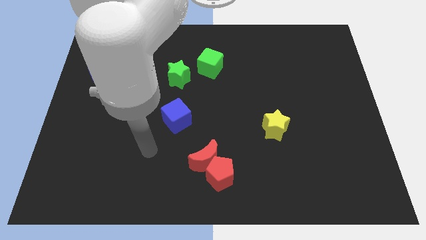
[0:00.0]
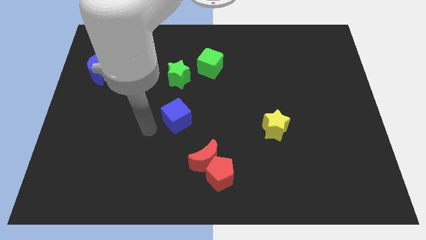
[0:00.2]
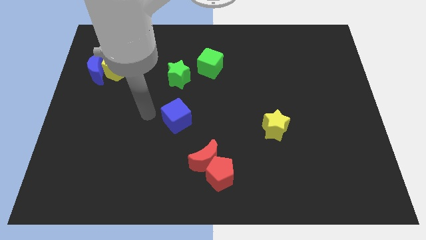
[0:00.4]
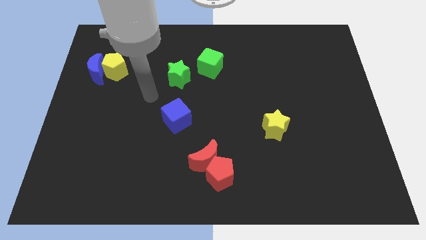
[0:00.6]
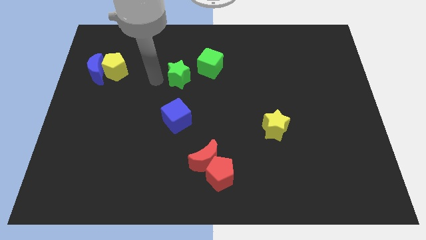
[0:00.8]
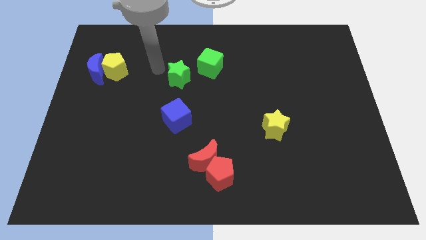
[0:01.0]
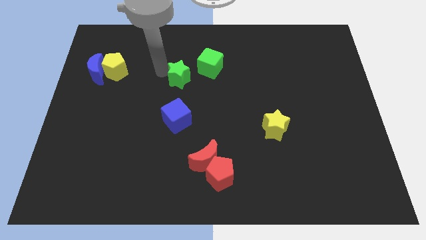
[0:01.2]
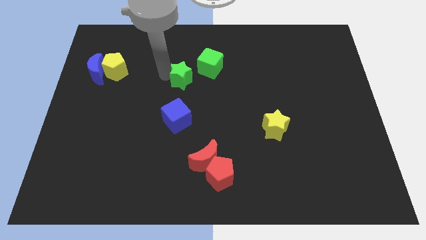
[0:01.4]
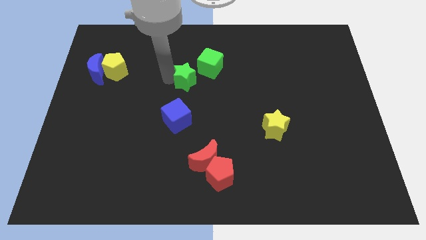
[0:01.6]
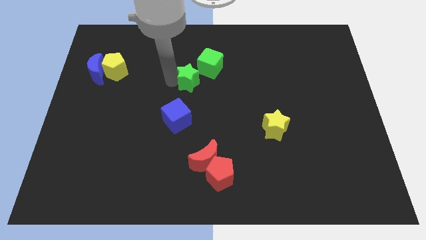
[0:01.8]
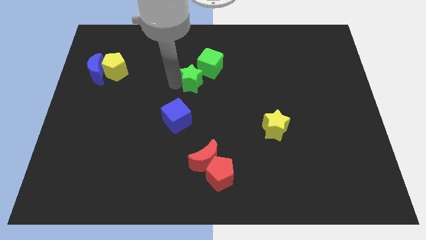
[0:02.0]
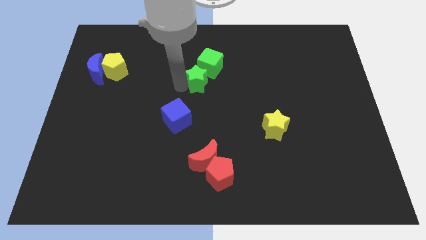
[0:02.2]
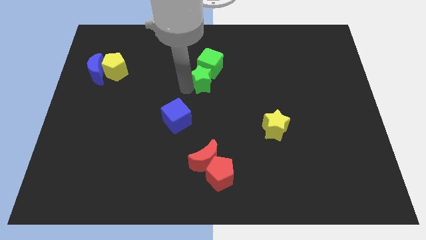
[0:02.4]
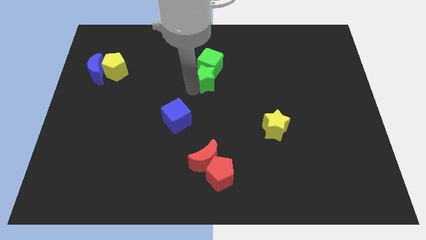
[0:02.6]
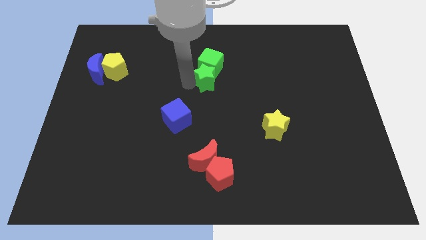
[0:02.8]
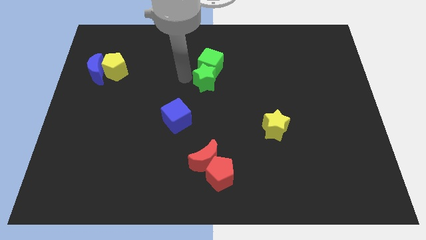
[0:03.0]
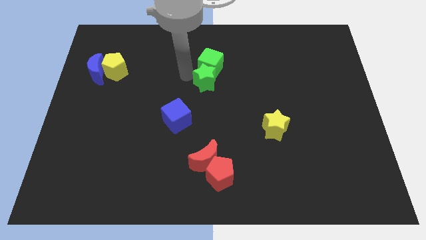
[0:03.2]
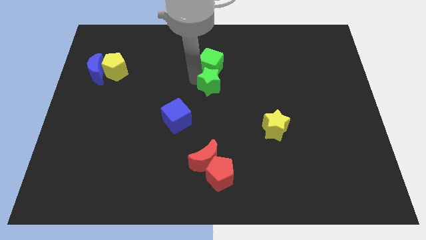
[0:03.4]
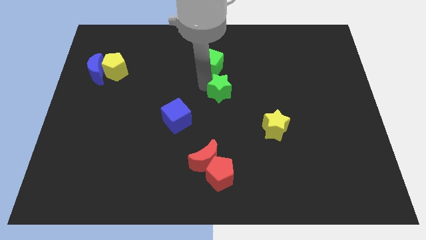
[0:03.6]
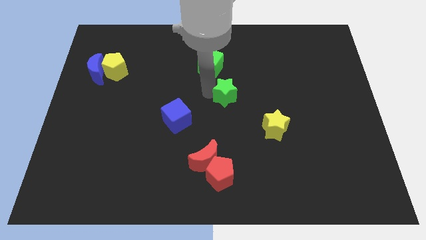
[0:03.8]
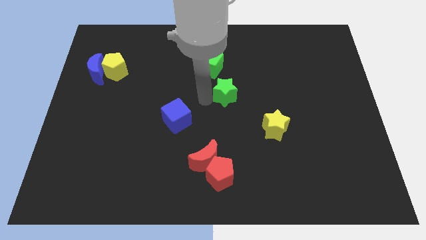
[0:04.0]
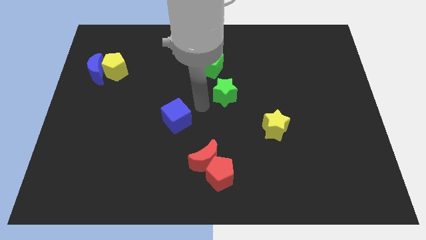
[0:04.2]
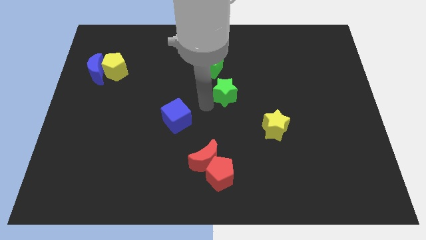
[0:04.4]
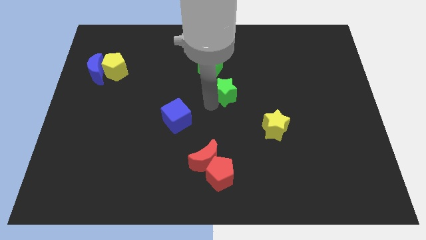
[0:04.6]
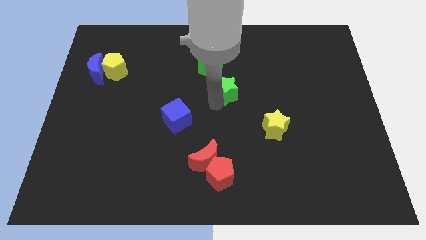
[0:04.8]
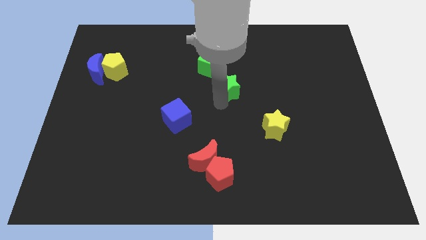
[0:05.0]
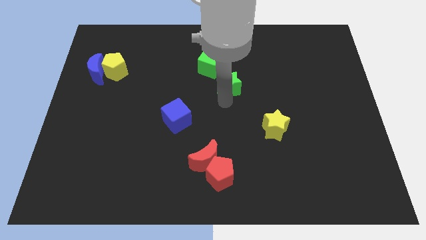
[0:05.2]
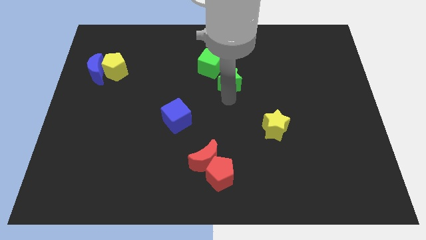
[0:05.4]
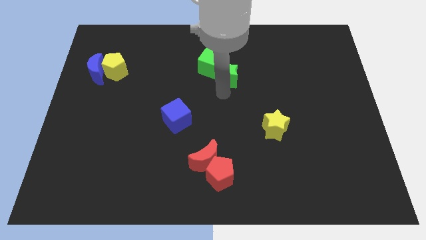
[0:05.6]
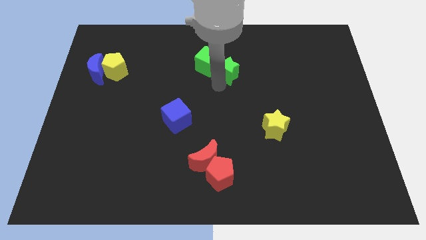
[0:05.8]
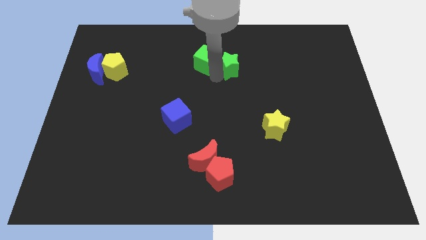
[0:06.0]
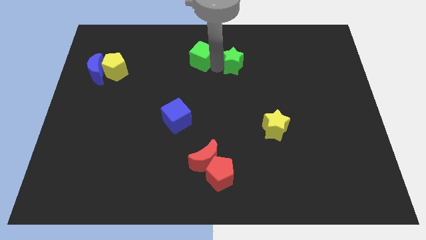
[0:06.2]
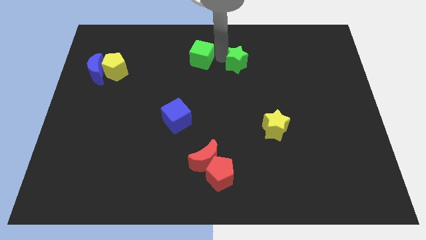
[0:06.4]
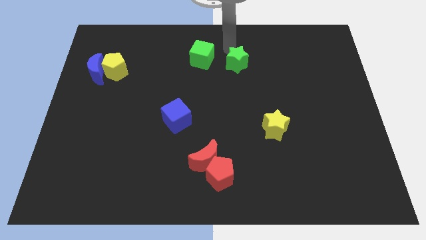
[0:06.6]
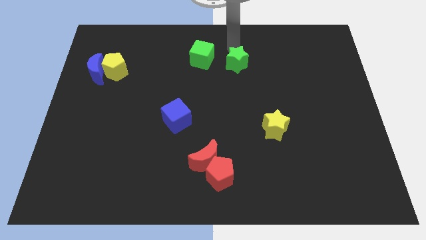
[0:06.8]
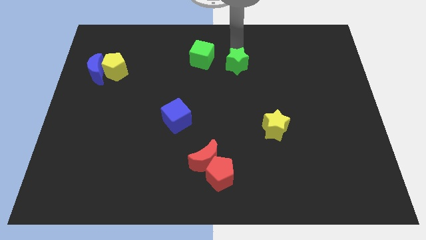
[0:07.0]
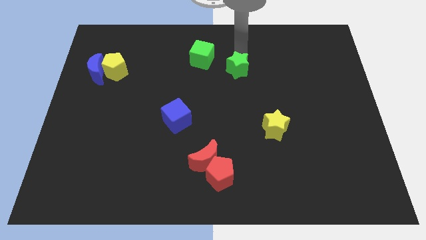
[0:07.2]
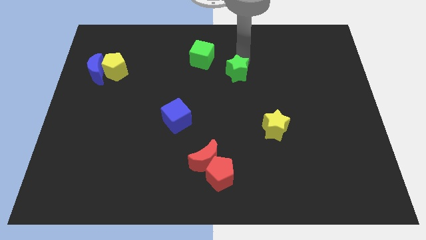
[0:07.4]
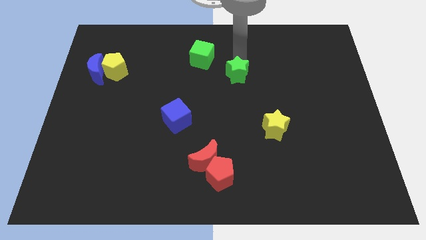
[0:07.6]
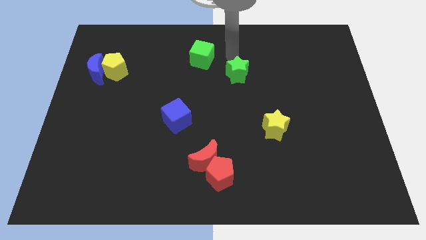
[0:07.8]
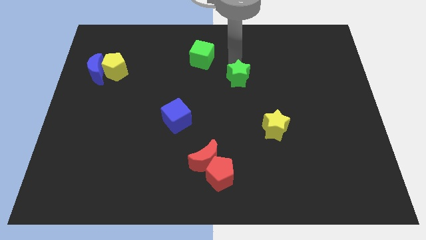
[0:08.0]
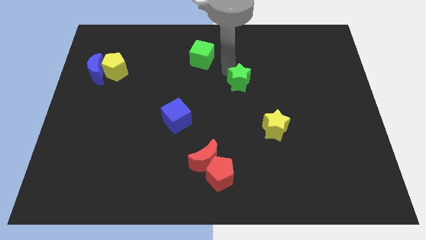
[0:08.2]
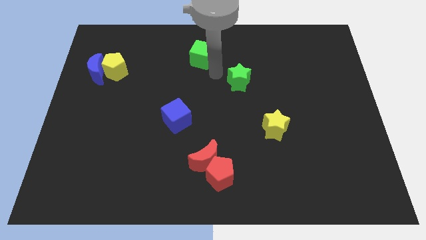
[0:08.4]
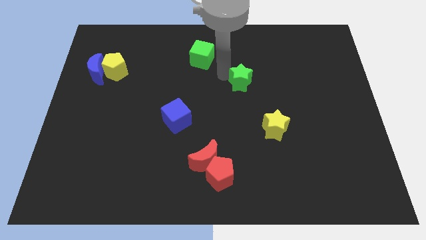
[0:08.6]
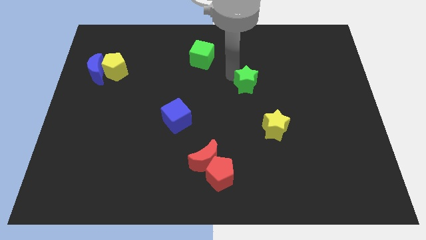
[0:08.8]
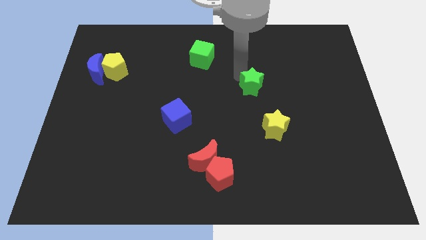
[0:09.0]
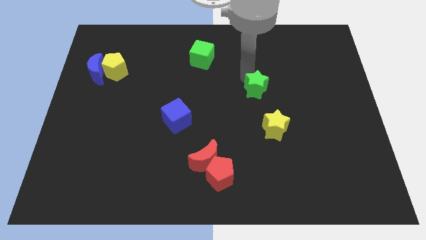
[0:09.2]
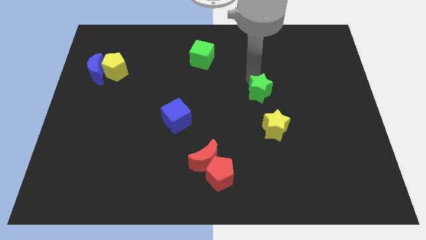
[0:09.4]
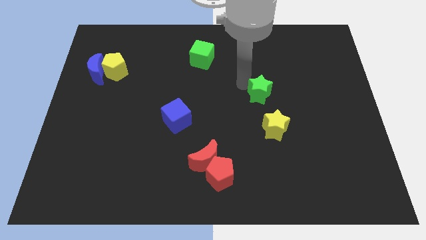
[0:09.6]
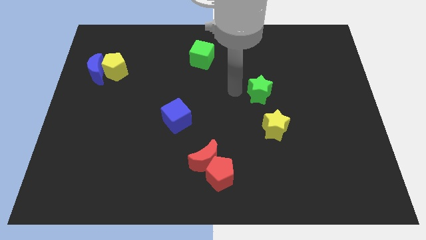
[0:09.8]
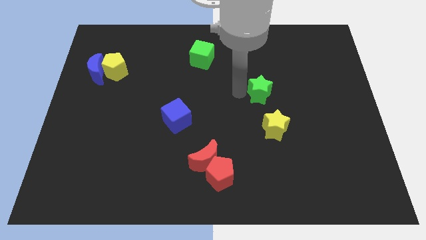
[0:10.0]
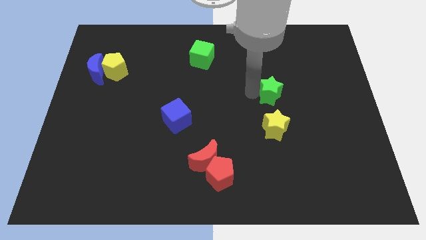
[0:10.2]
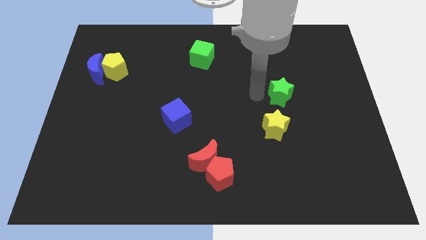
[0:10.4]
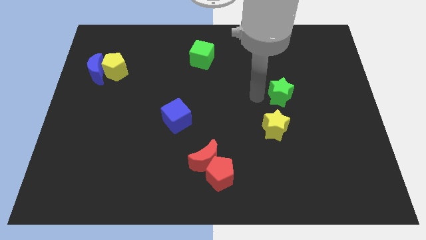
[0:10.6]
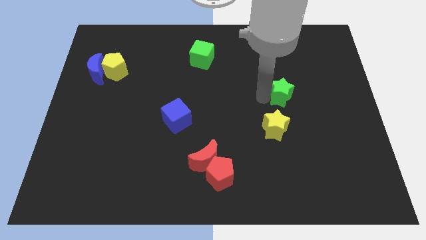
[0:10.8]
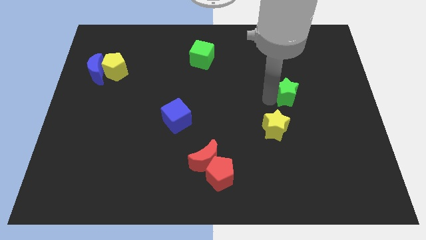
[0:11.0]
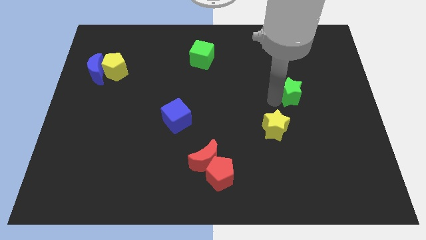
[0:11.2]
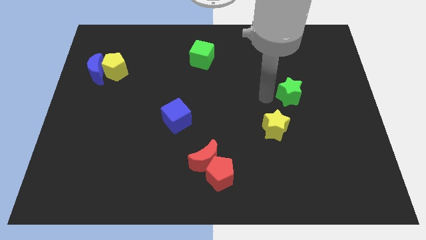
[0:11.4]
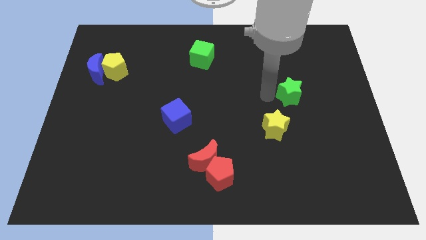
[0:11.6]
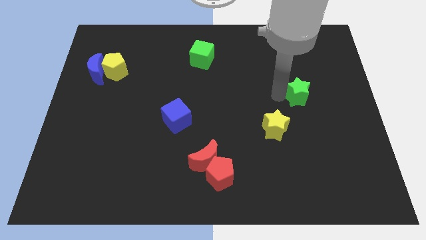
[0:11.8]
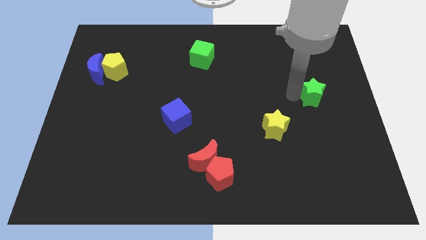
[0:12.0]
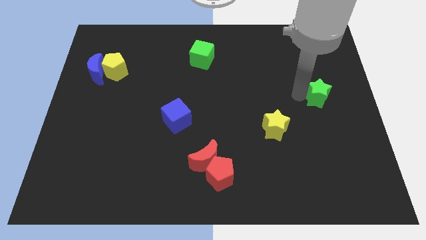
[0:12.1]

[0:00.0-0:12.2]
slide the green star to the right side of the board
